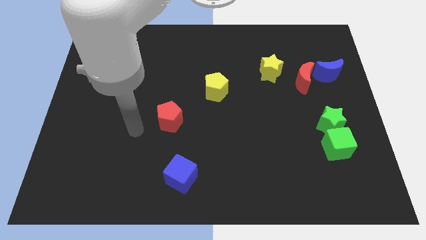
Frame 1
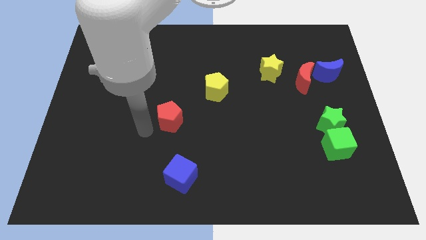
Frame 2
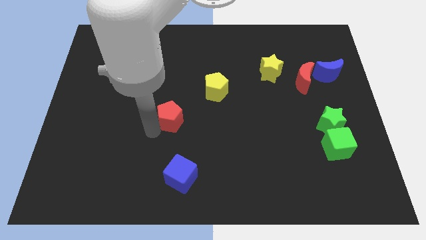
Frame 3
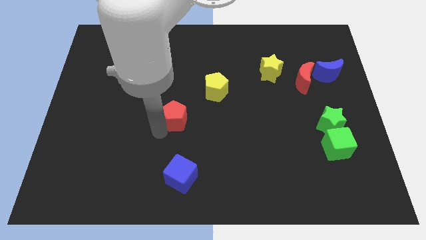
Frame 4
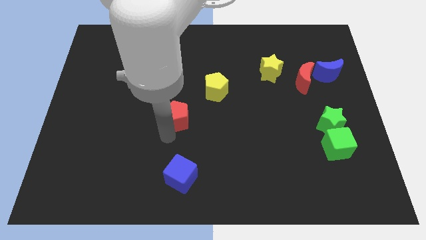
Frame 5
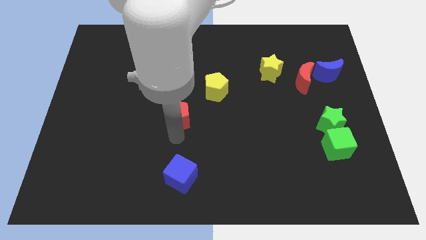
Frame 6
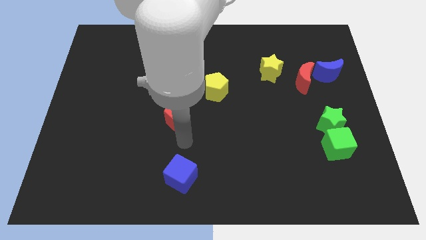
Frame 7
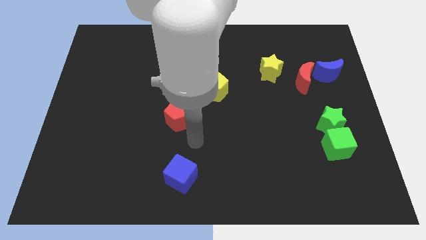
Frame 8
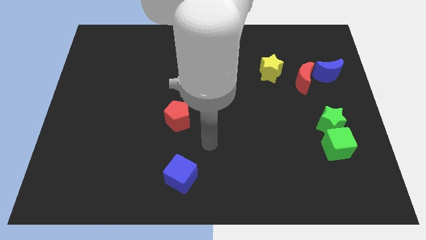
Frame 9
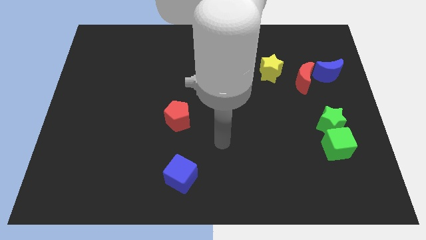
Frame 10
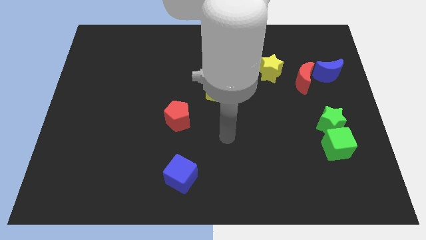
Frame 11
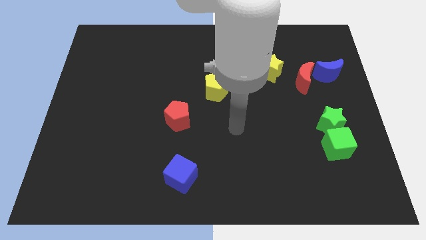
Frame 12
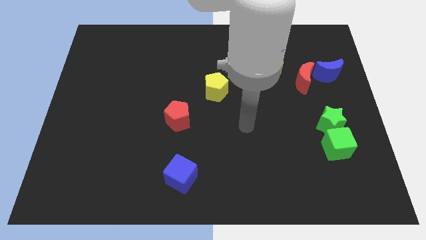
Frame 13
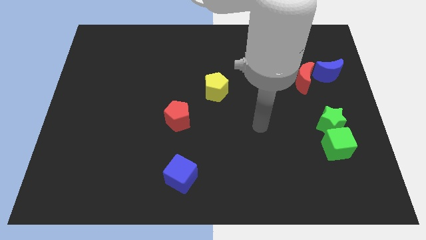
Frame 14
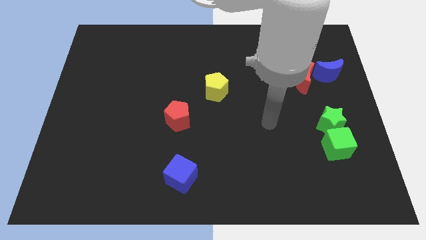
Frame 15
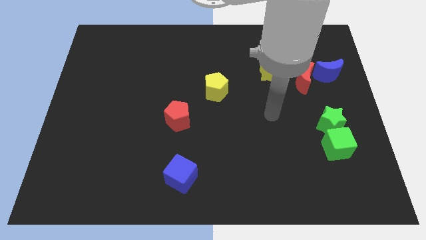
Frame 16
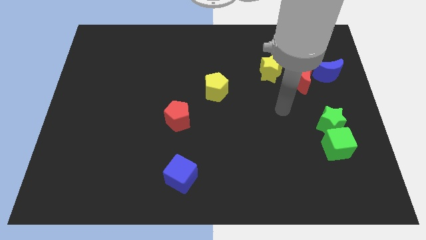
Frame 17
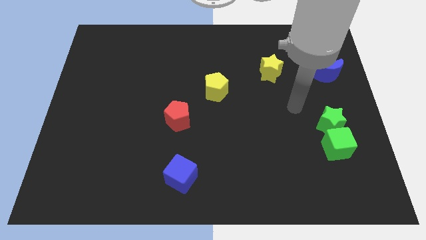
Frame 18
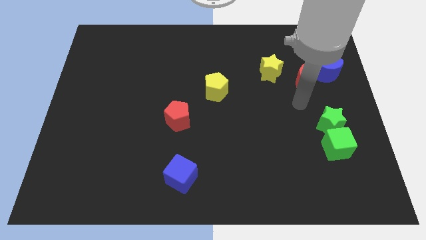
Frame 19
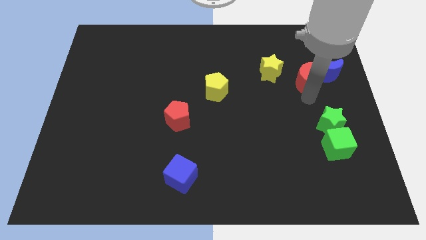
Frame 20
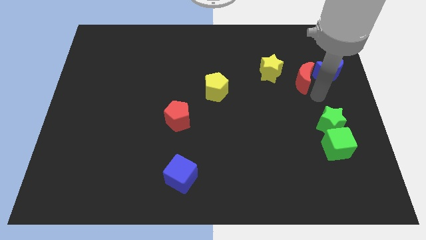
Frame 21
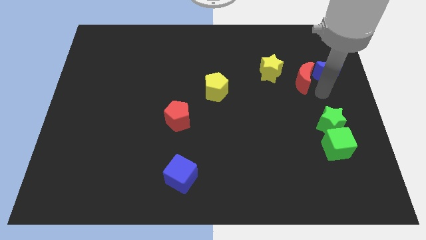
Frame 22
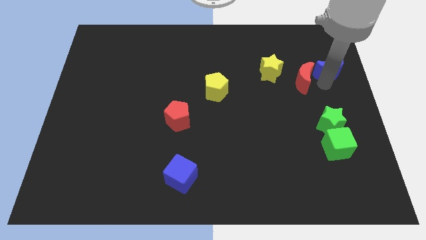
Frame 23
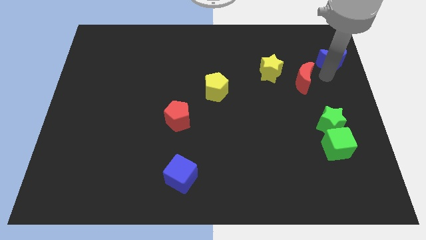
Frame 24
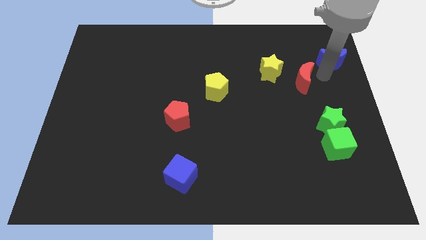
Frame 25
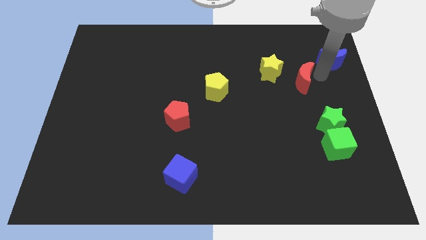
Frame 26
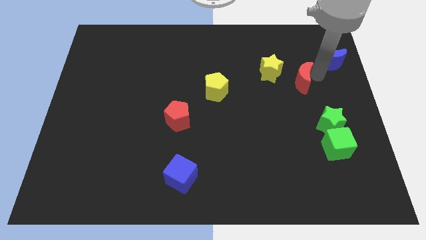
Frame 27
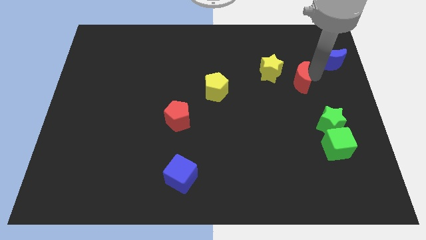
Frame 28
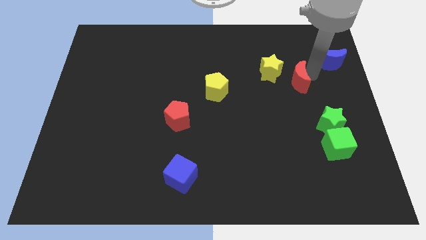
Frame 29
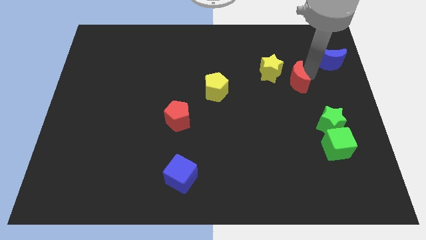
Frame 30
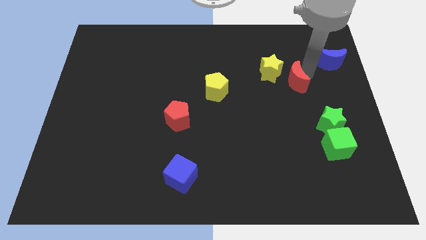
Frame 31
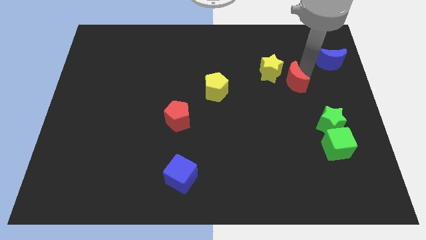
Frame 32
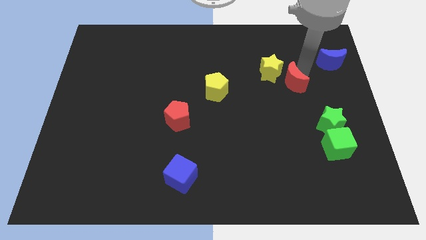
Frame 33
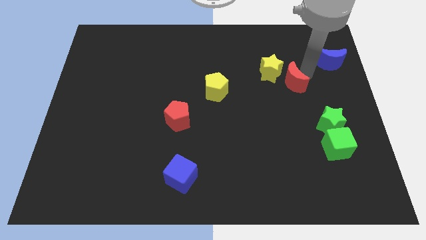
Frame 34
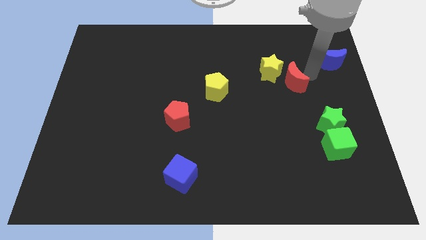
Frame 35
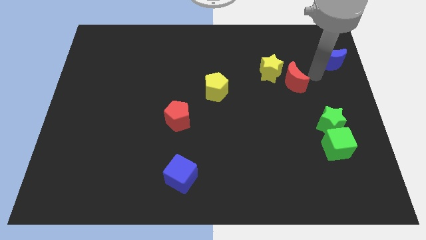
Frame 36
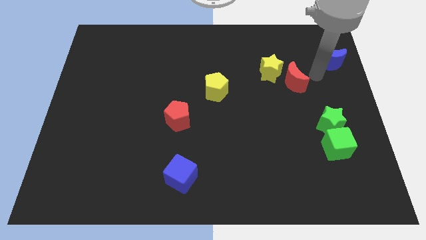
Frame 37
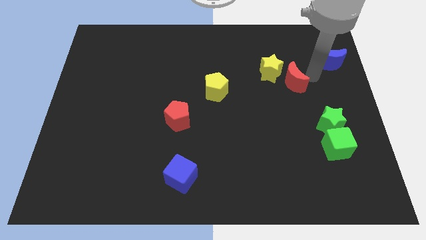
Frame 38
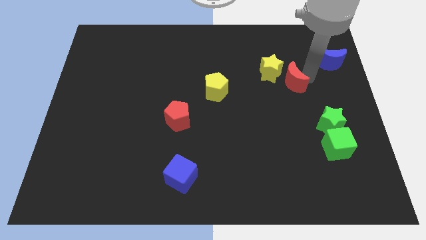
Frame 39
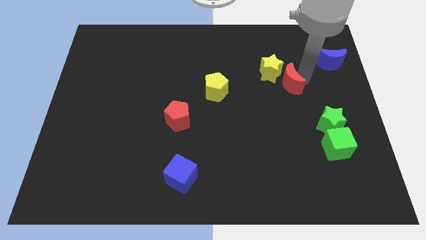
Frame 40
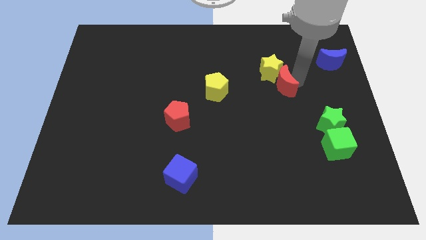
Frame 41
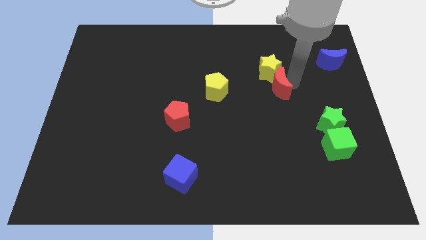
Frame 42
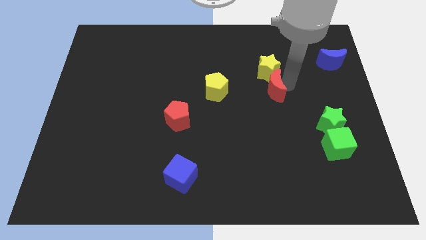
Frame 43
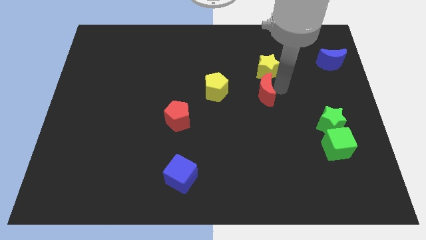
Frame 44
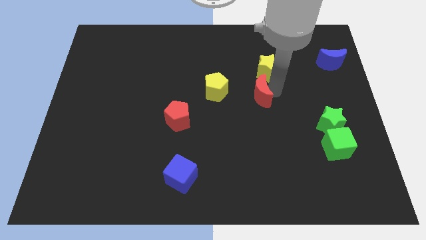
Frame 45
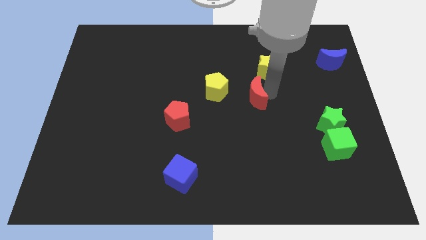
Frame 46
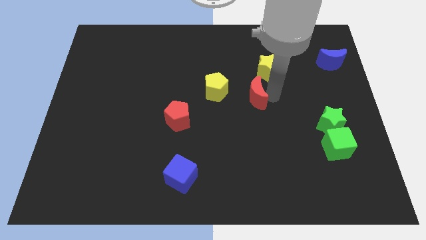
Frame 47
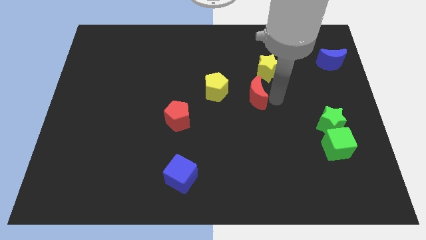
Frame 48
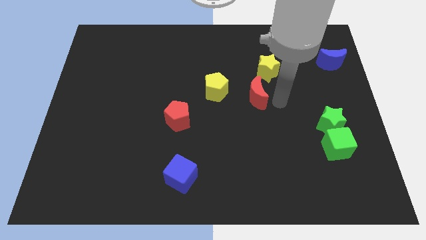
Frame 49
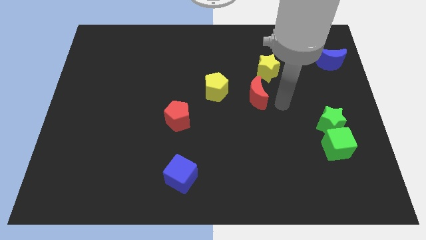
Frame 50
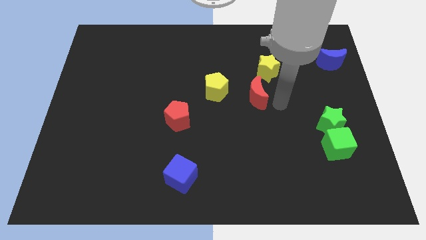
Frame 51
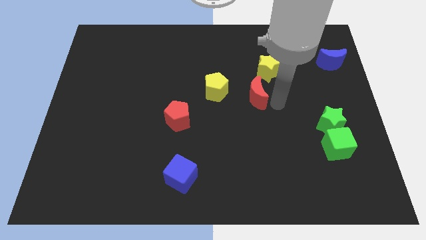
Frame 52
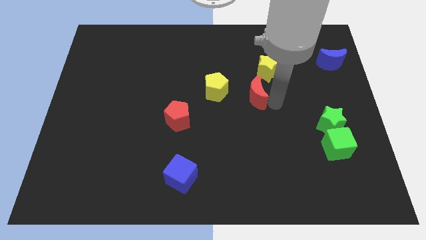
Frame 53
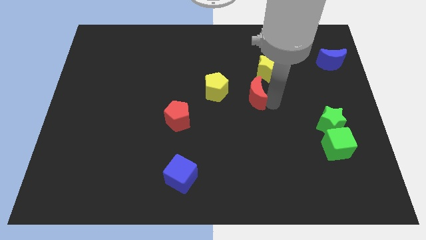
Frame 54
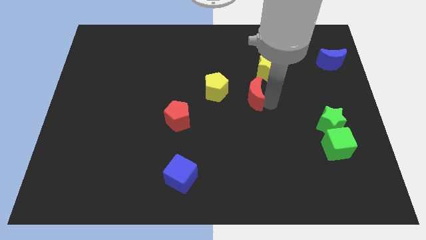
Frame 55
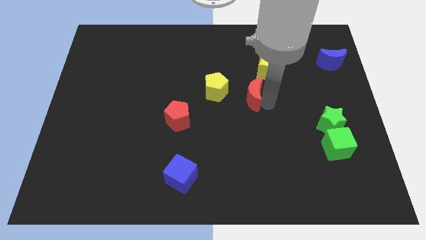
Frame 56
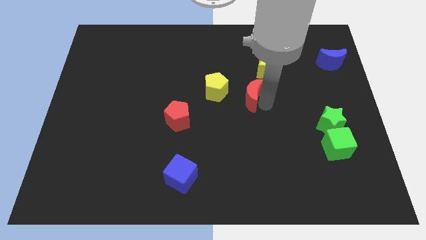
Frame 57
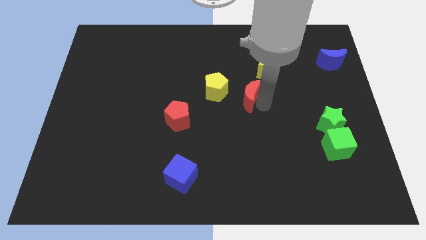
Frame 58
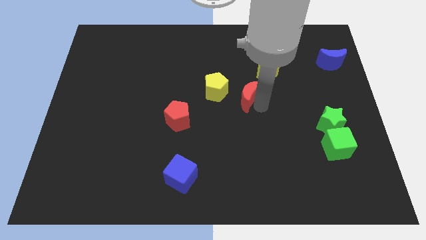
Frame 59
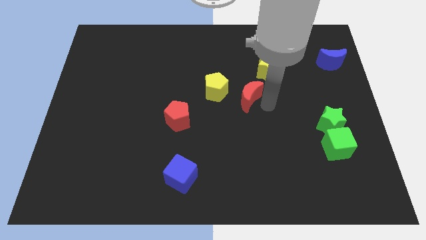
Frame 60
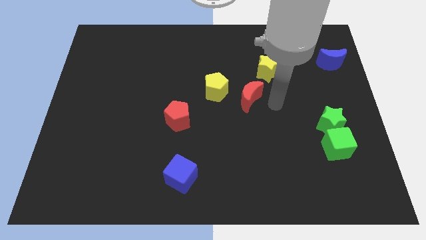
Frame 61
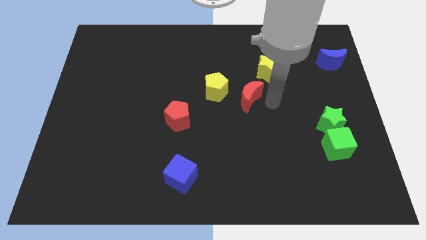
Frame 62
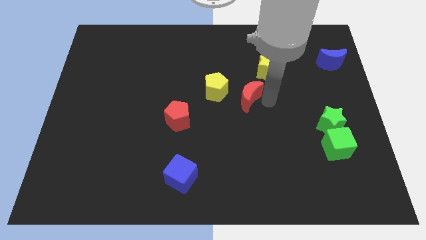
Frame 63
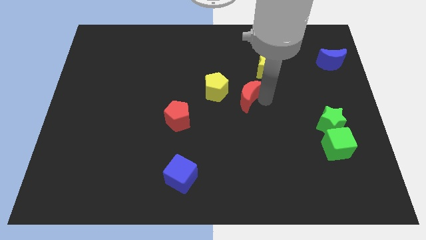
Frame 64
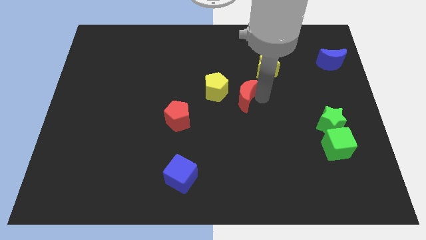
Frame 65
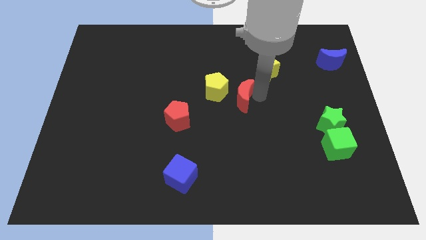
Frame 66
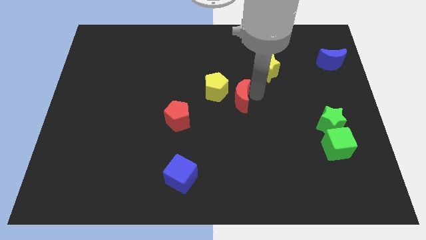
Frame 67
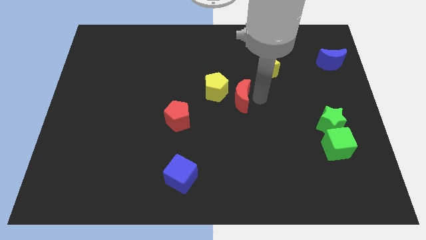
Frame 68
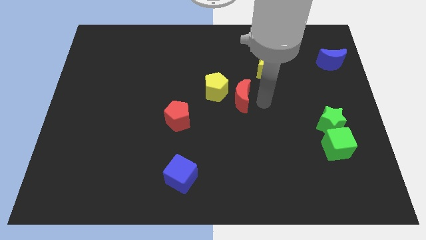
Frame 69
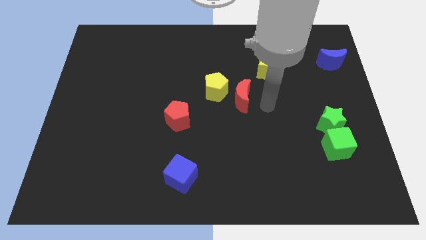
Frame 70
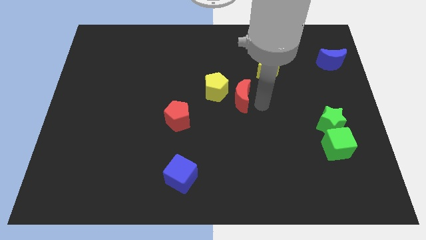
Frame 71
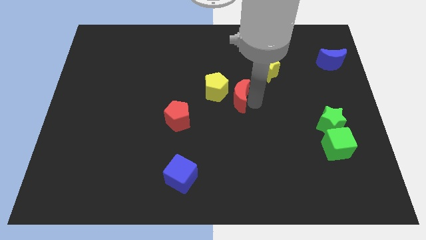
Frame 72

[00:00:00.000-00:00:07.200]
move the red moon to the yellow pentagon

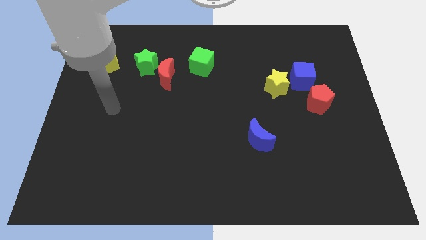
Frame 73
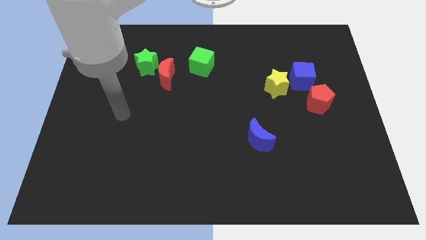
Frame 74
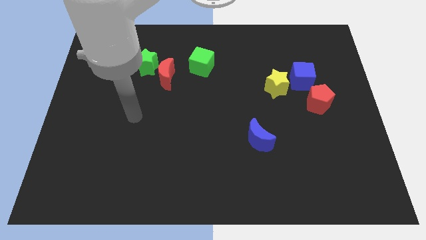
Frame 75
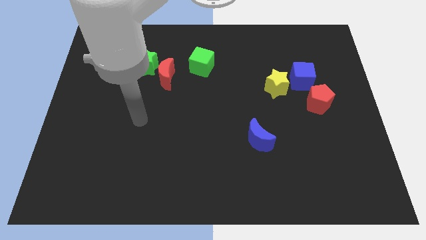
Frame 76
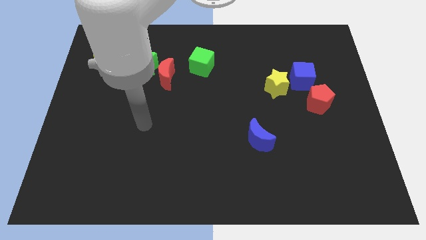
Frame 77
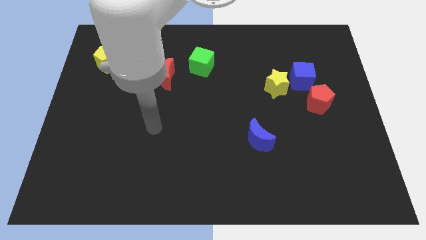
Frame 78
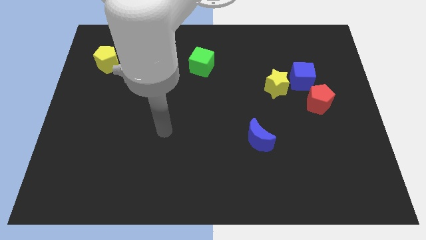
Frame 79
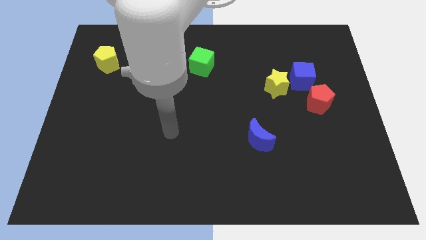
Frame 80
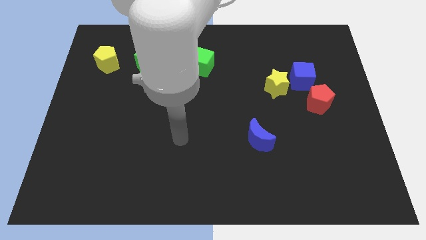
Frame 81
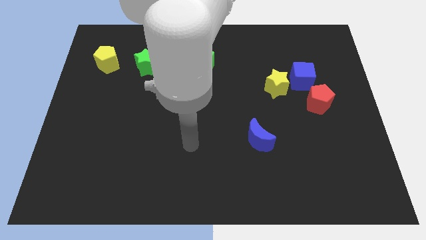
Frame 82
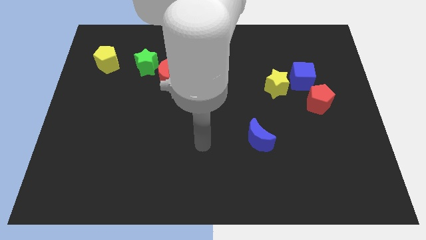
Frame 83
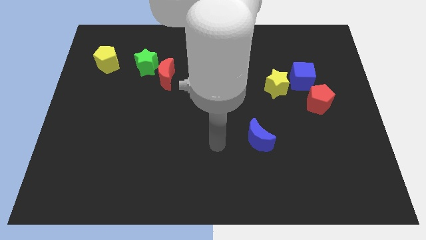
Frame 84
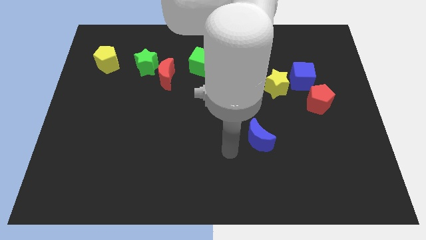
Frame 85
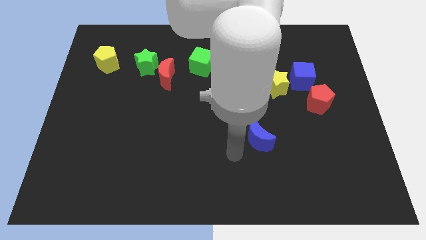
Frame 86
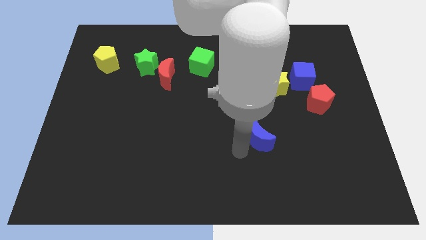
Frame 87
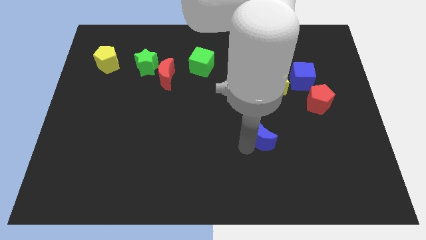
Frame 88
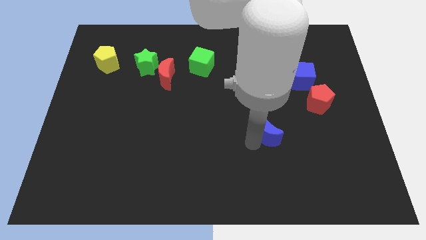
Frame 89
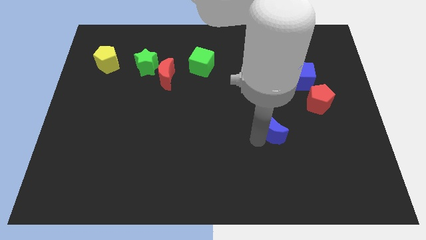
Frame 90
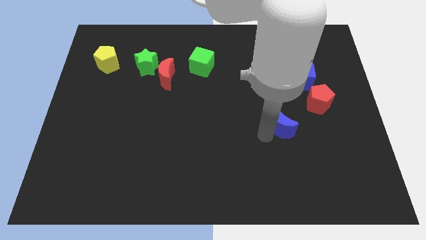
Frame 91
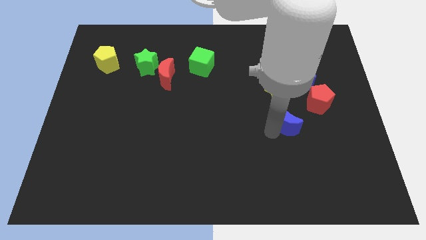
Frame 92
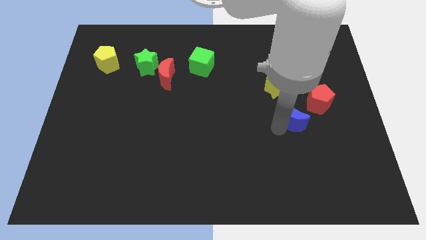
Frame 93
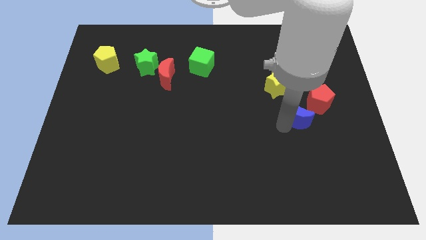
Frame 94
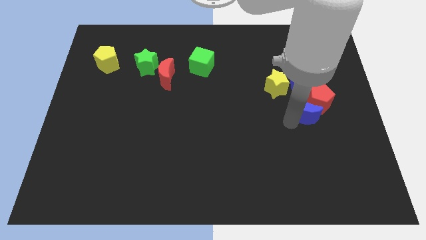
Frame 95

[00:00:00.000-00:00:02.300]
push the blue moon to the red pentagon
